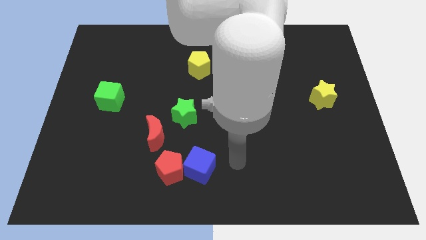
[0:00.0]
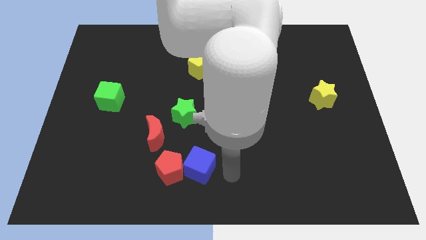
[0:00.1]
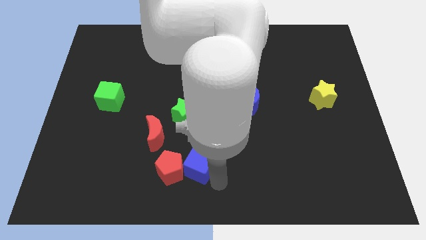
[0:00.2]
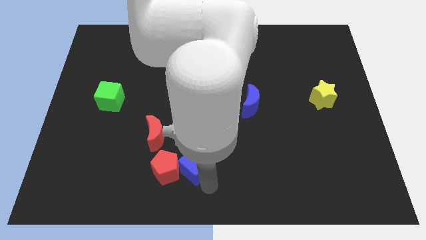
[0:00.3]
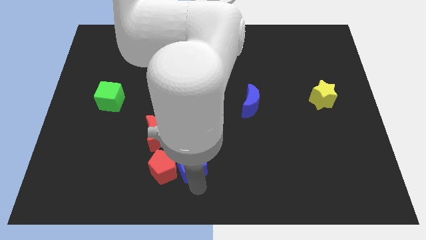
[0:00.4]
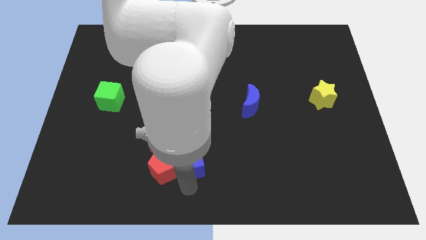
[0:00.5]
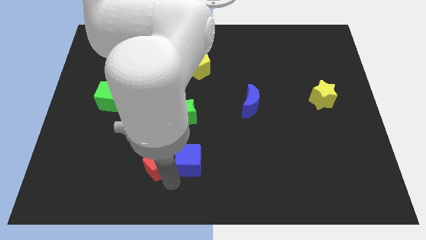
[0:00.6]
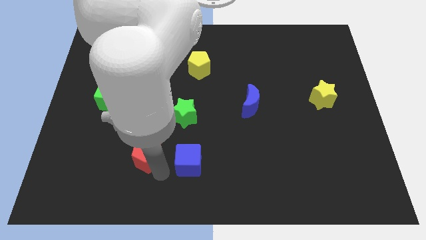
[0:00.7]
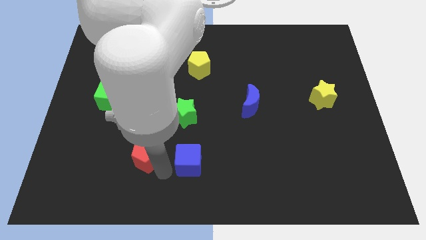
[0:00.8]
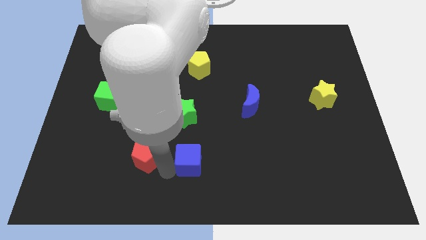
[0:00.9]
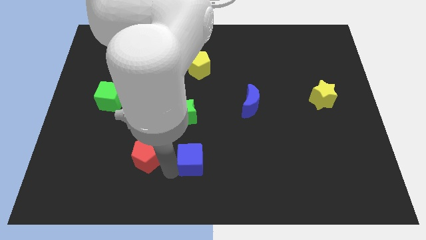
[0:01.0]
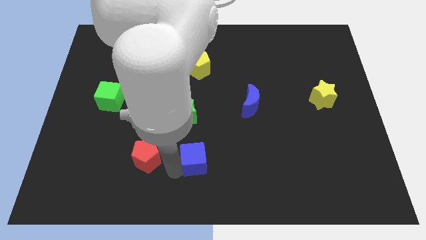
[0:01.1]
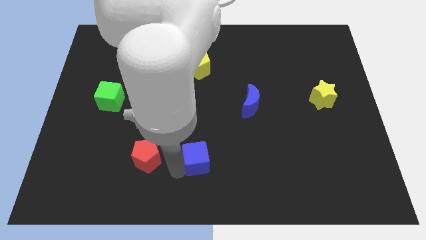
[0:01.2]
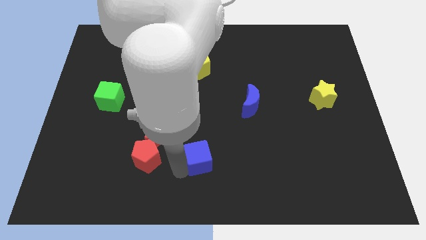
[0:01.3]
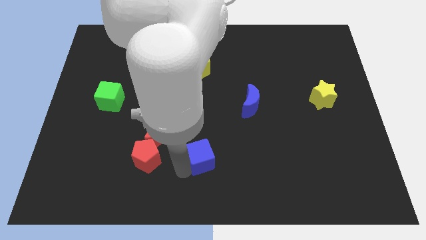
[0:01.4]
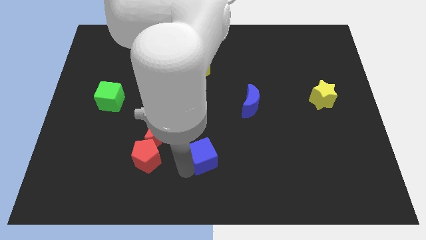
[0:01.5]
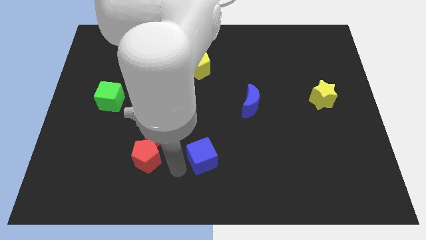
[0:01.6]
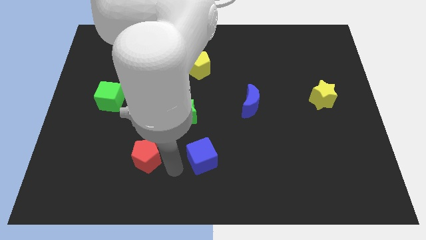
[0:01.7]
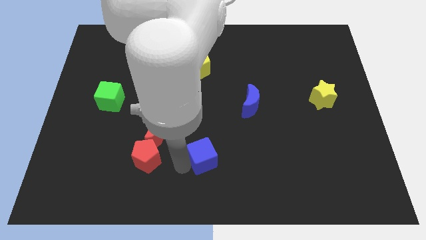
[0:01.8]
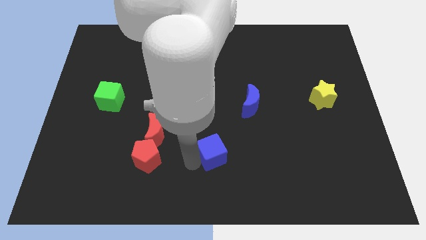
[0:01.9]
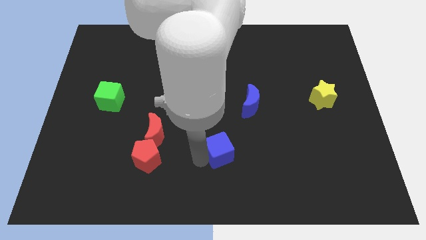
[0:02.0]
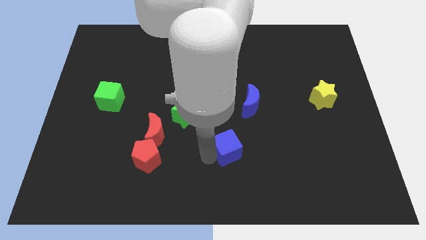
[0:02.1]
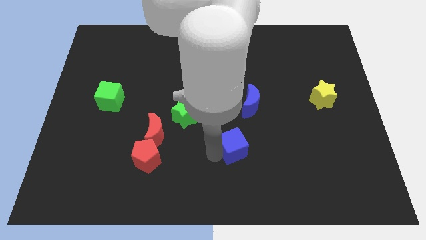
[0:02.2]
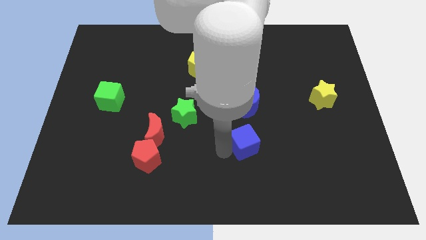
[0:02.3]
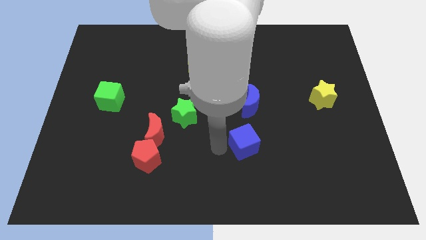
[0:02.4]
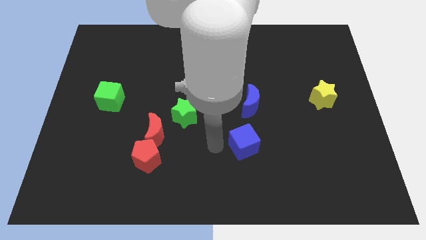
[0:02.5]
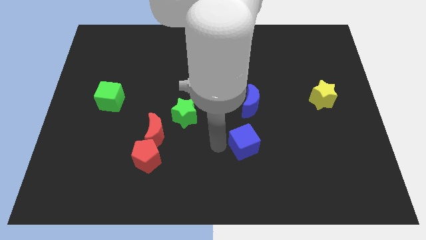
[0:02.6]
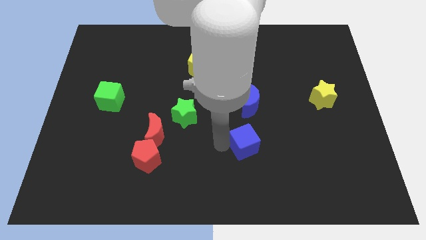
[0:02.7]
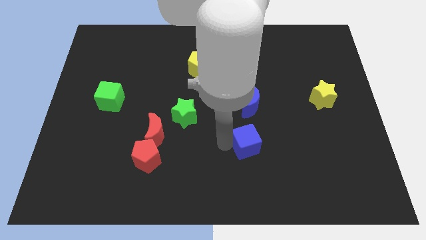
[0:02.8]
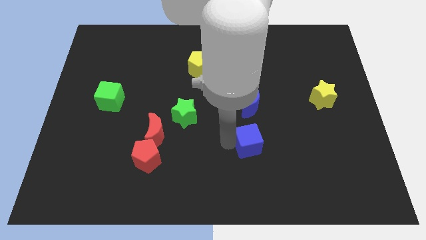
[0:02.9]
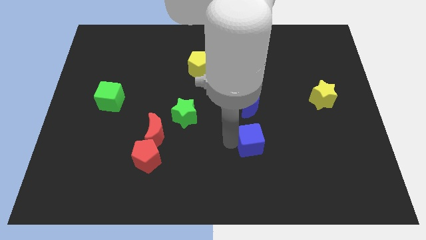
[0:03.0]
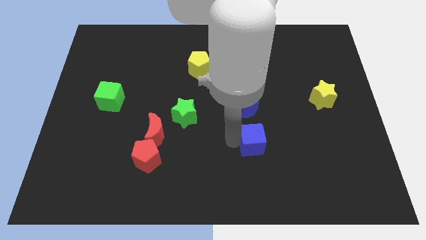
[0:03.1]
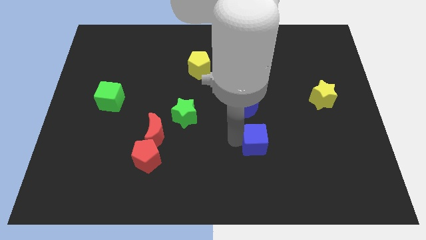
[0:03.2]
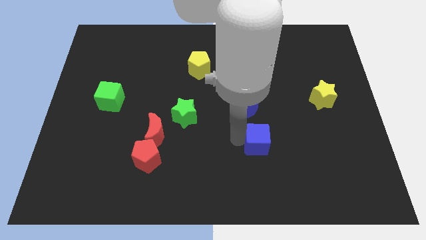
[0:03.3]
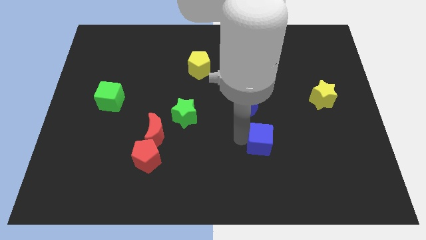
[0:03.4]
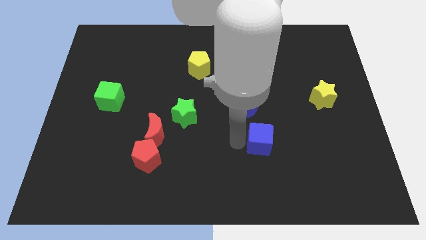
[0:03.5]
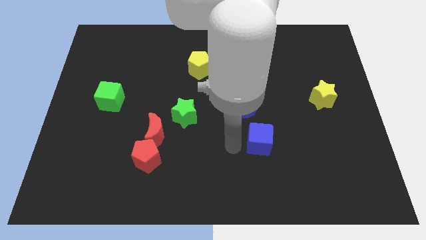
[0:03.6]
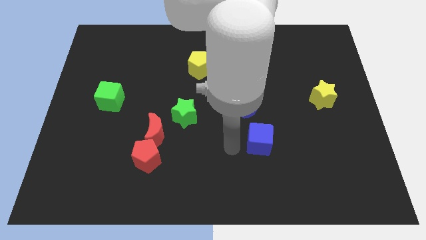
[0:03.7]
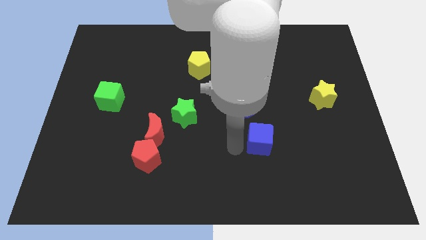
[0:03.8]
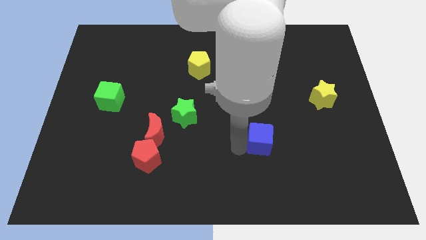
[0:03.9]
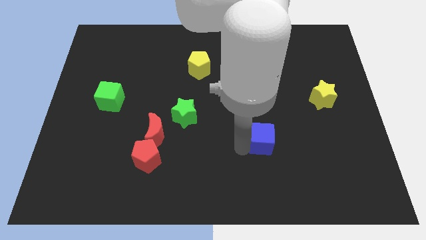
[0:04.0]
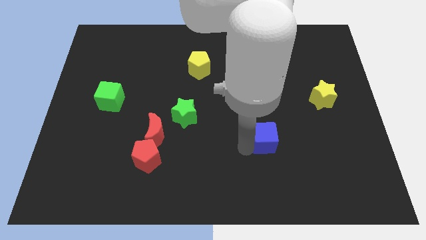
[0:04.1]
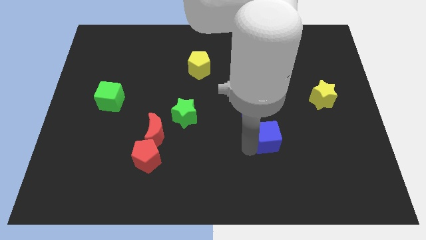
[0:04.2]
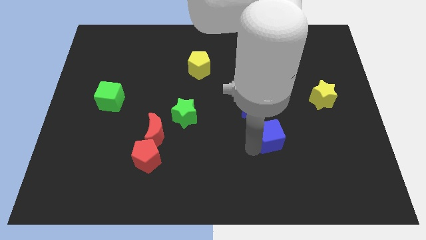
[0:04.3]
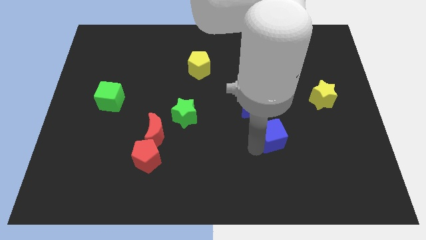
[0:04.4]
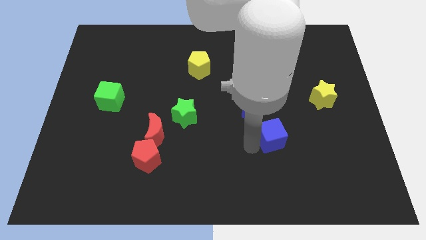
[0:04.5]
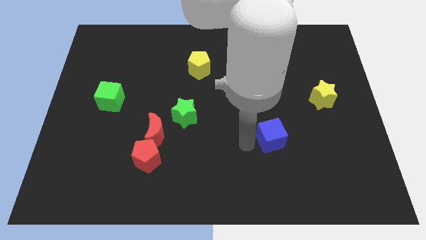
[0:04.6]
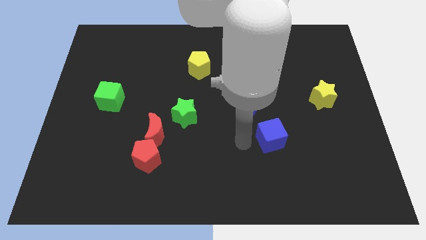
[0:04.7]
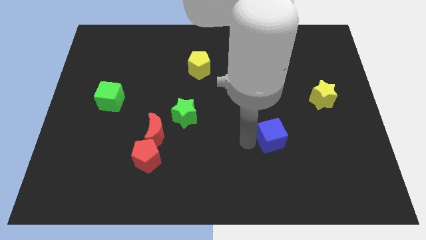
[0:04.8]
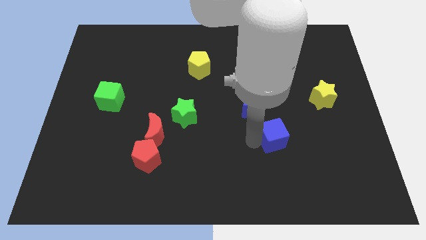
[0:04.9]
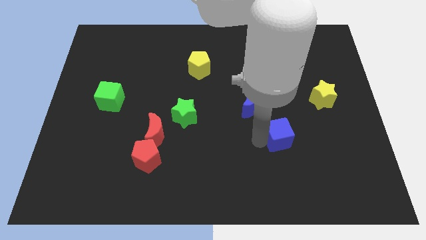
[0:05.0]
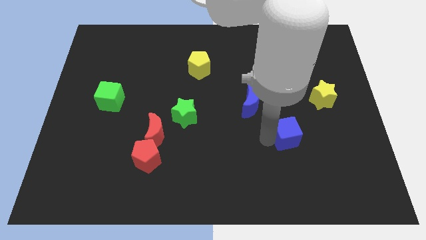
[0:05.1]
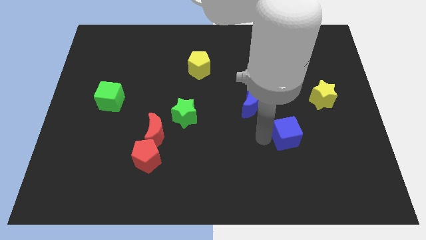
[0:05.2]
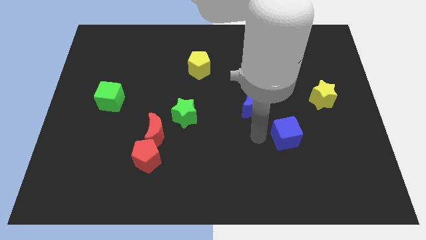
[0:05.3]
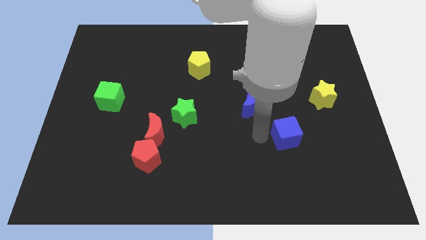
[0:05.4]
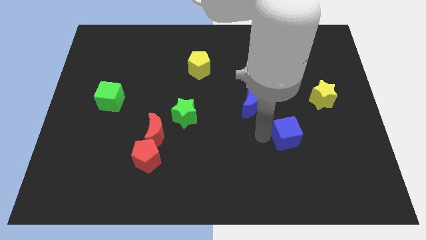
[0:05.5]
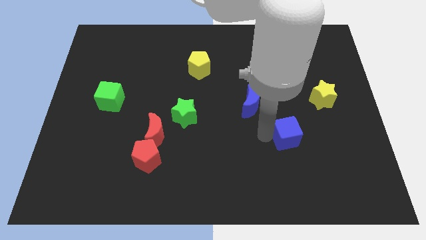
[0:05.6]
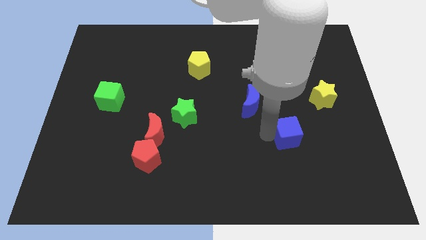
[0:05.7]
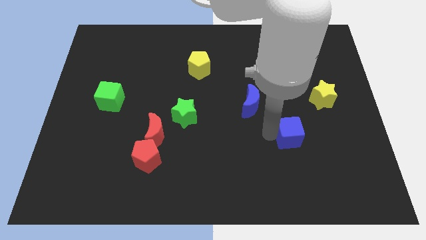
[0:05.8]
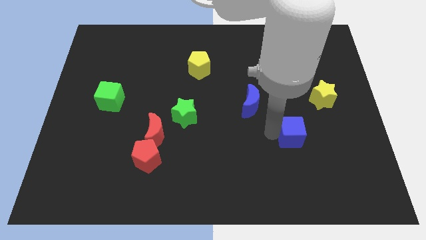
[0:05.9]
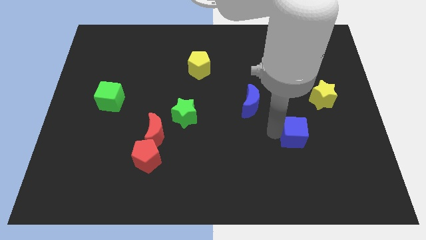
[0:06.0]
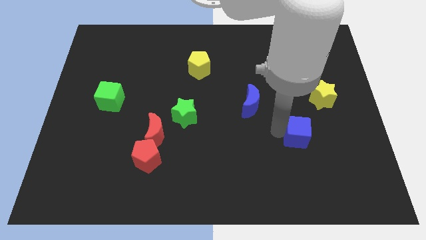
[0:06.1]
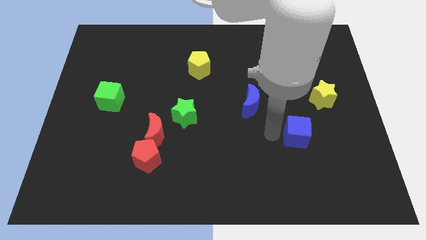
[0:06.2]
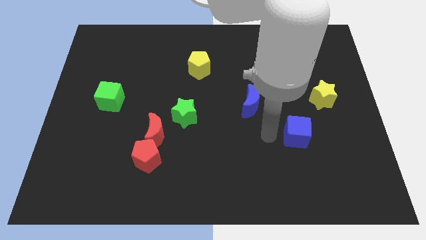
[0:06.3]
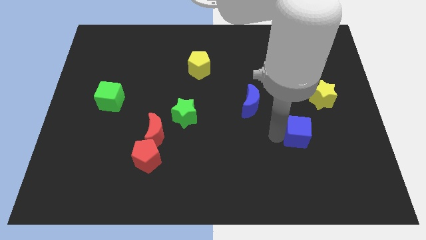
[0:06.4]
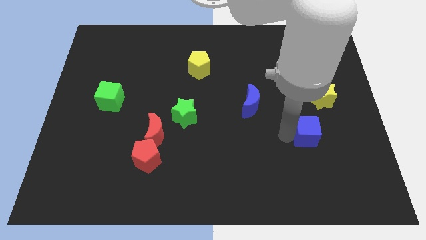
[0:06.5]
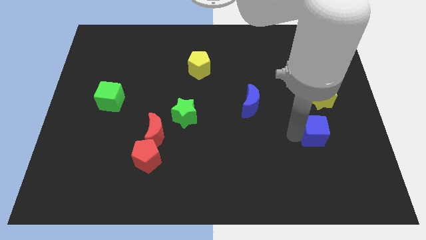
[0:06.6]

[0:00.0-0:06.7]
put the blue cube to the bottom of the yellow star
